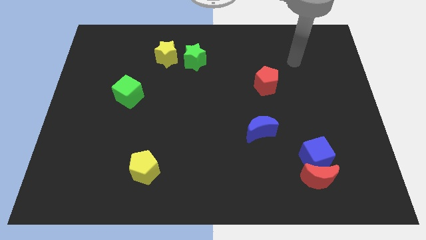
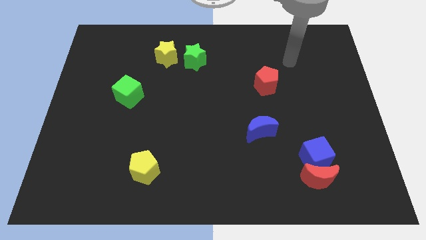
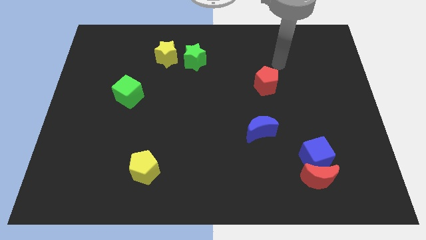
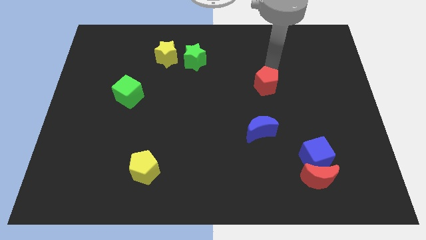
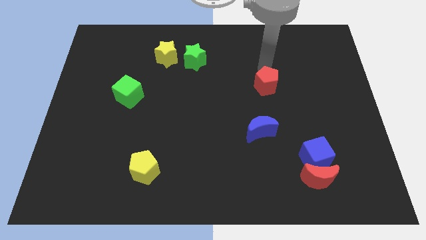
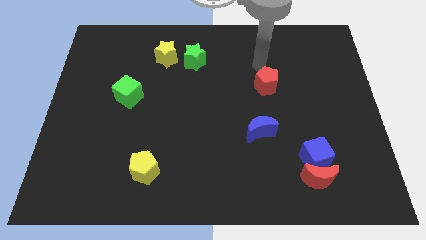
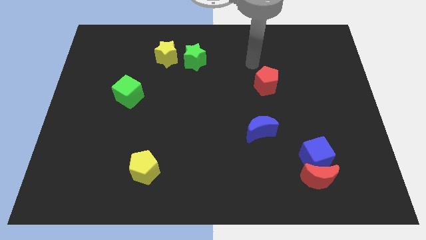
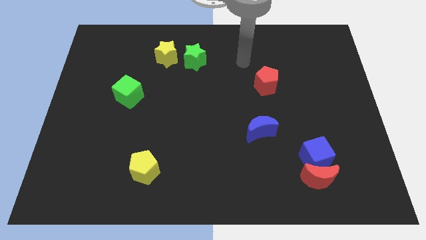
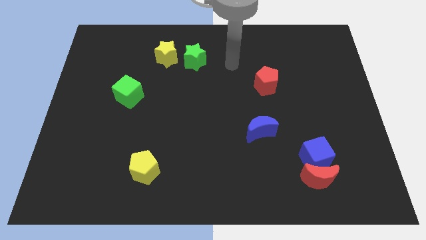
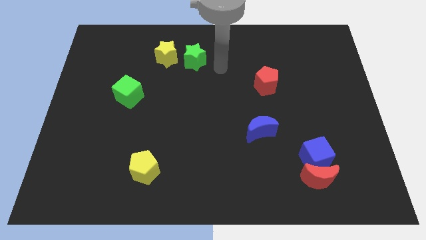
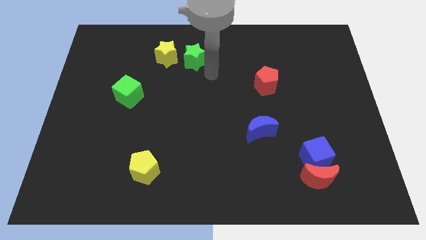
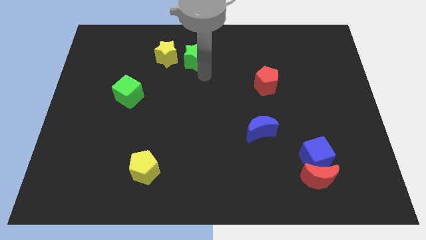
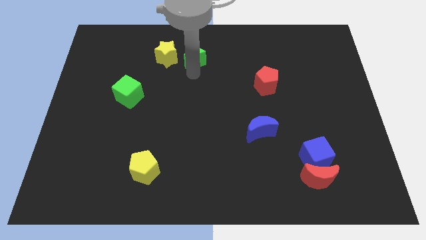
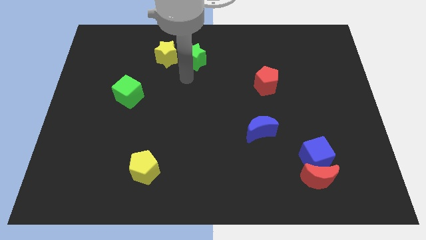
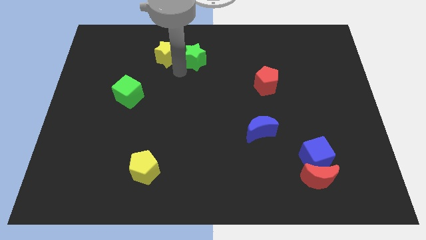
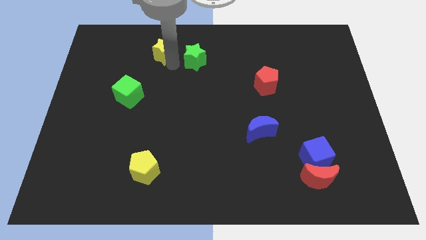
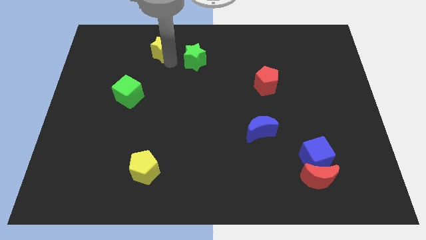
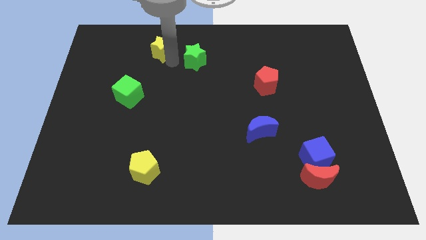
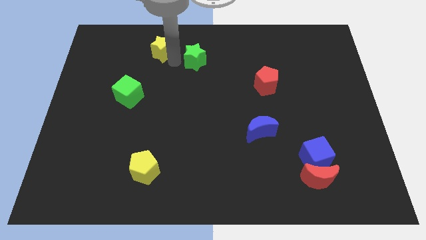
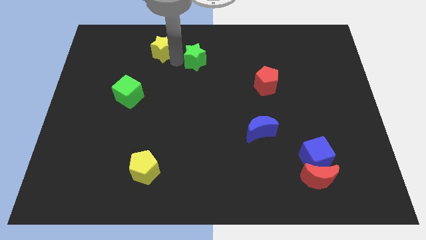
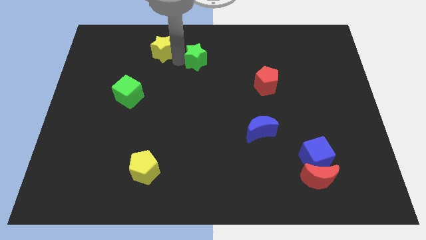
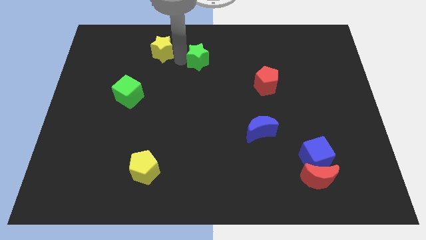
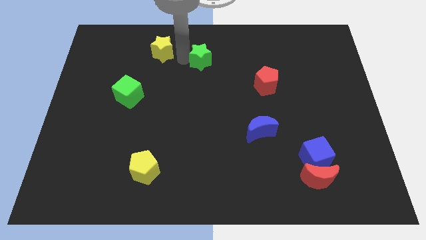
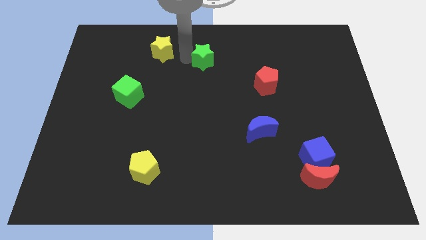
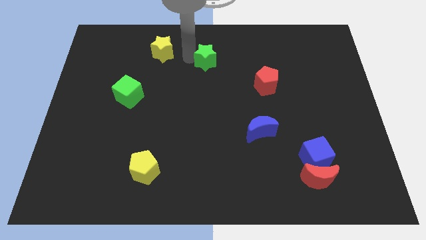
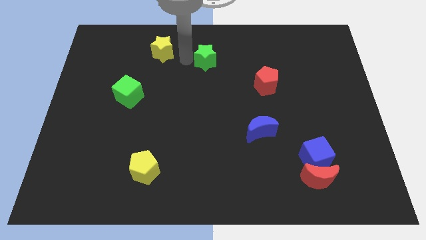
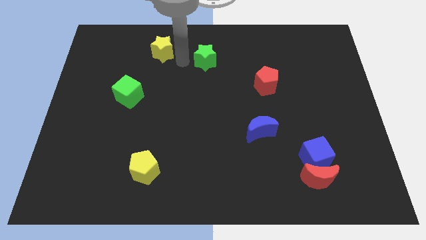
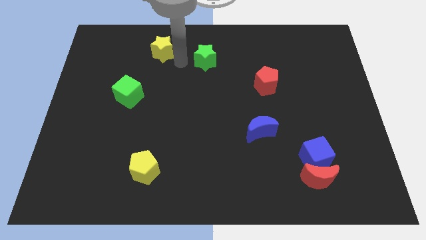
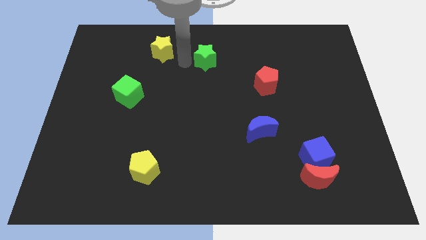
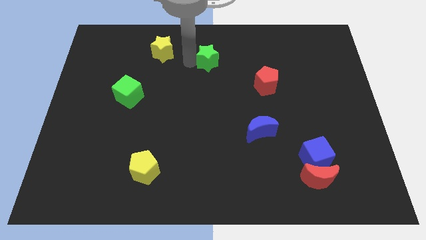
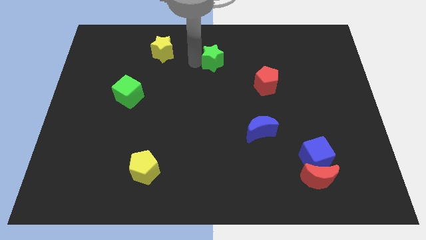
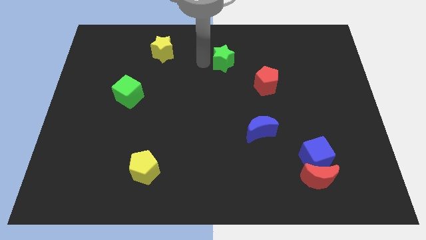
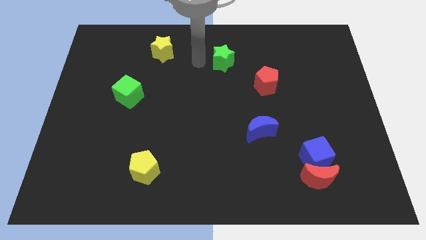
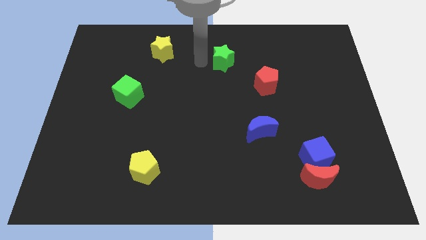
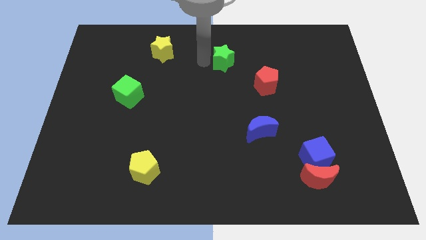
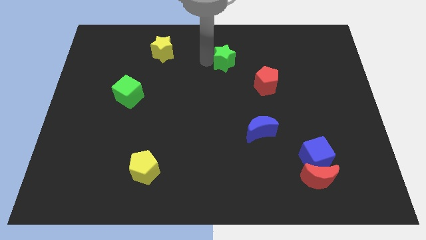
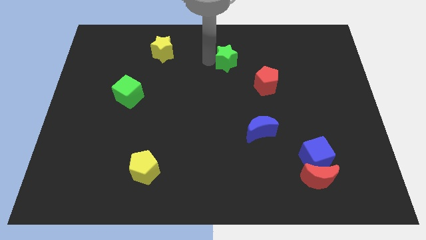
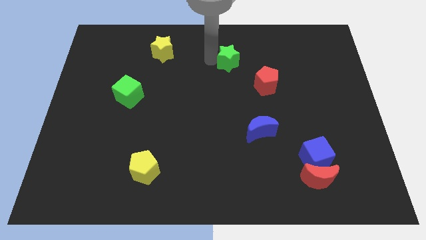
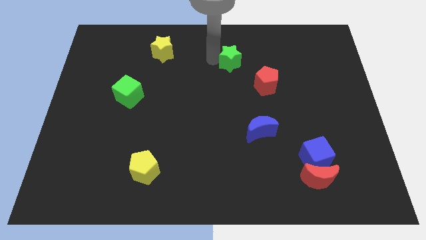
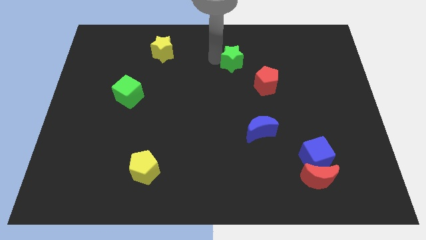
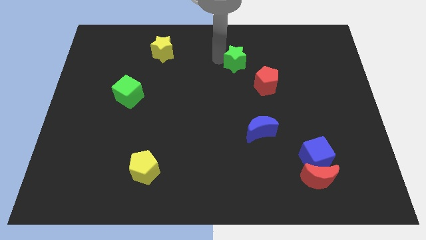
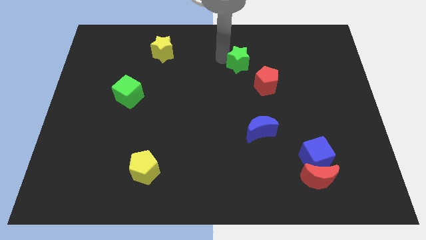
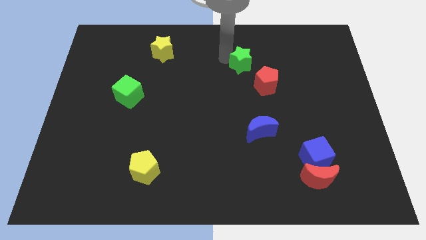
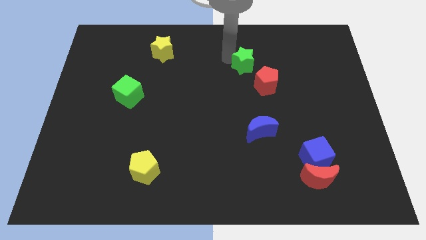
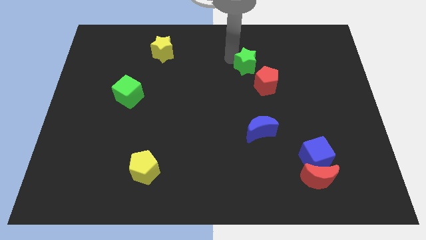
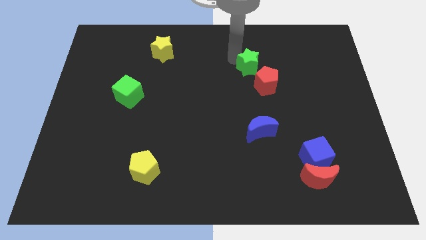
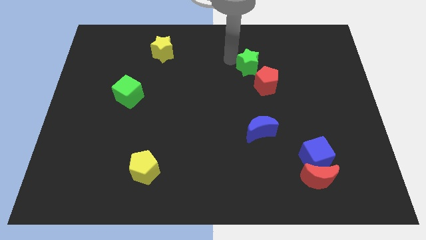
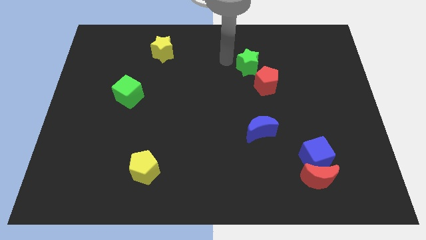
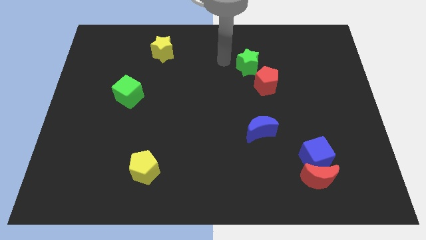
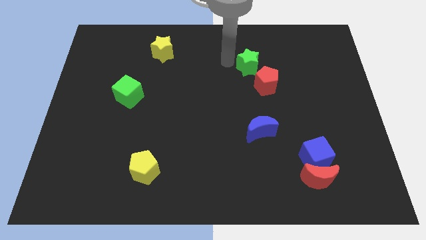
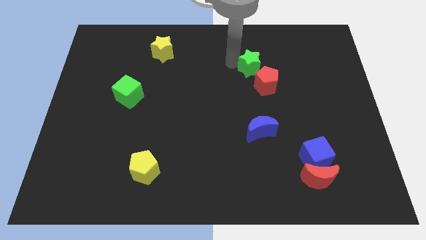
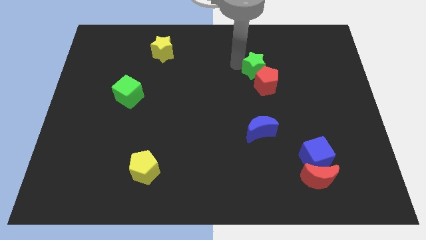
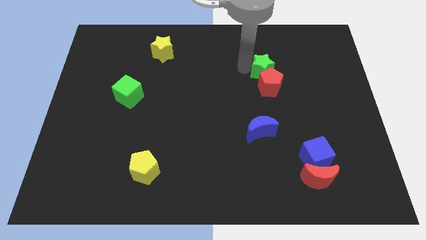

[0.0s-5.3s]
push the green star to the top right side of the red pentagon
